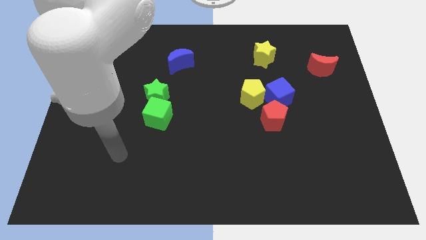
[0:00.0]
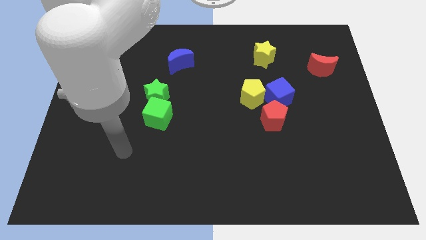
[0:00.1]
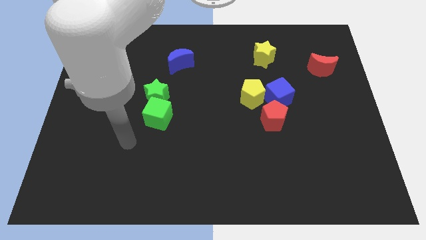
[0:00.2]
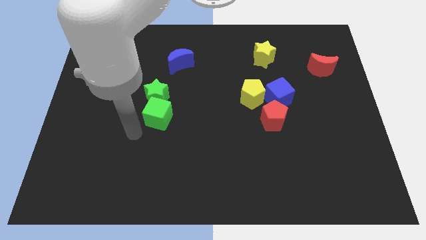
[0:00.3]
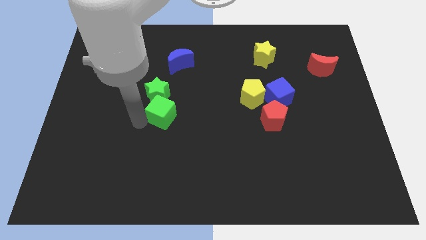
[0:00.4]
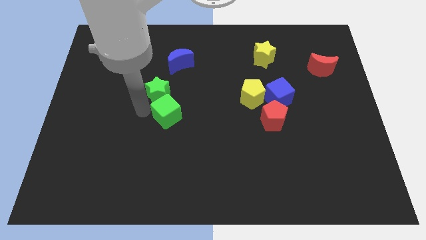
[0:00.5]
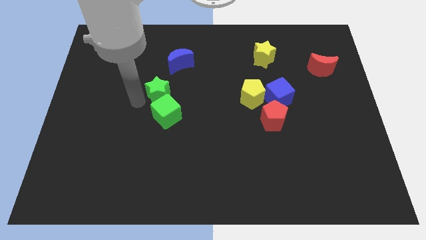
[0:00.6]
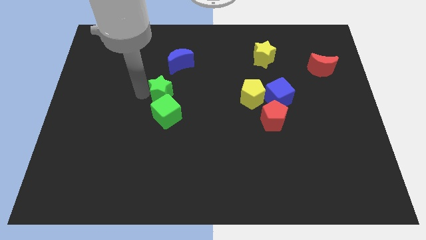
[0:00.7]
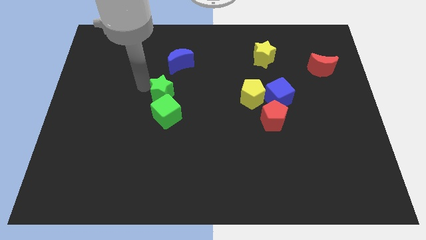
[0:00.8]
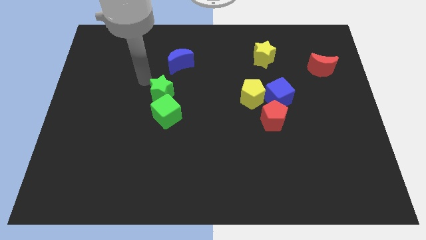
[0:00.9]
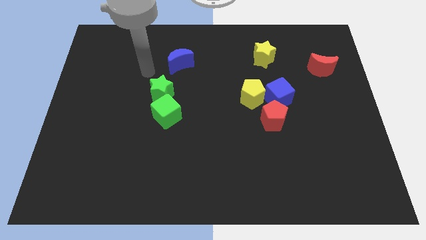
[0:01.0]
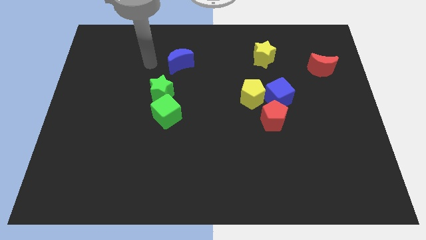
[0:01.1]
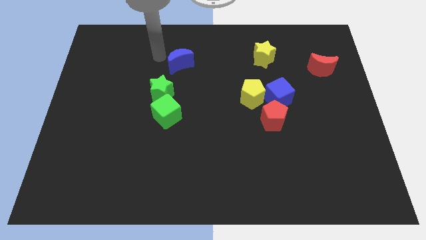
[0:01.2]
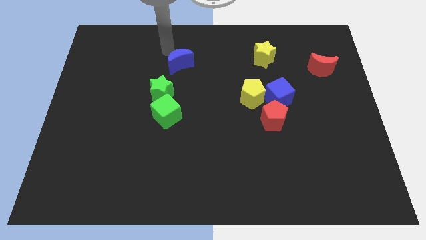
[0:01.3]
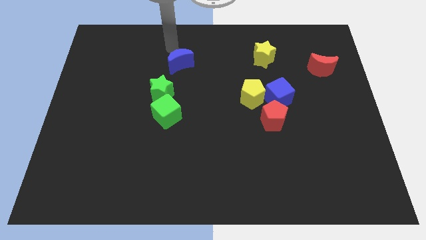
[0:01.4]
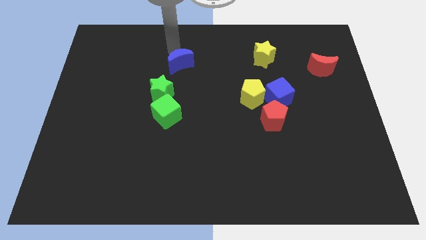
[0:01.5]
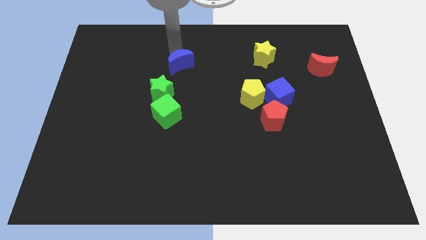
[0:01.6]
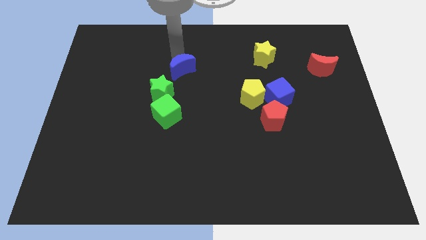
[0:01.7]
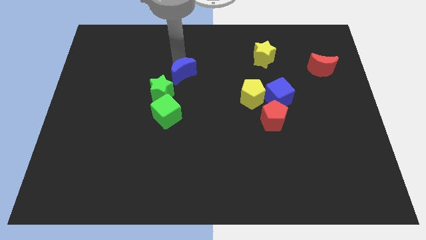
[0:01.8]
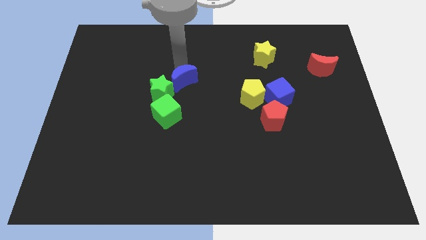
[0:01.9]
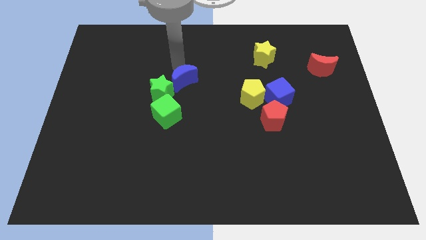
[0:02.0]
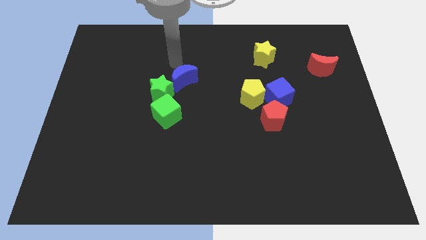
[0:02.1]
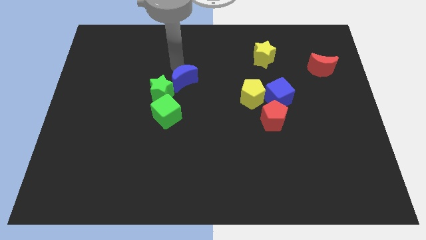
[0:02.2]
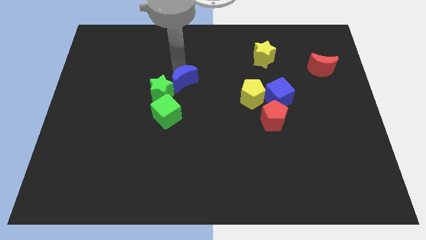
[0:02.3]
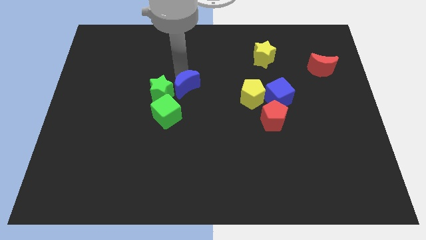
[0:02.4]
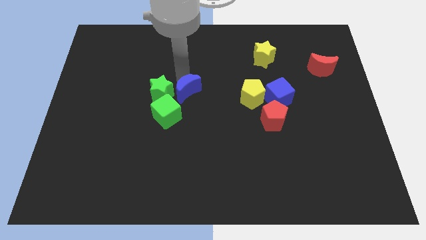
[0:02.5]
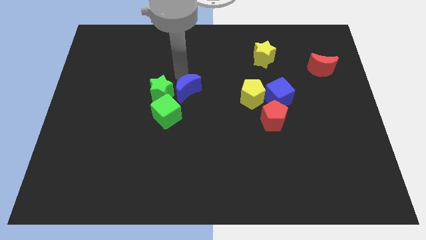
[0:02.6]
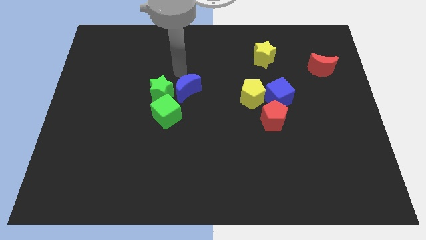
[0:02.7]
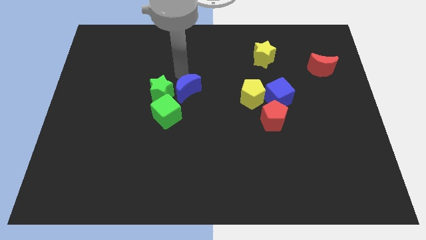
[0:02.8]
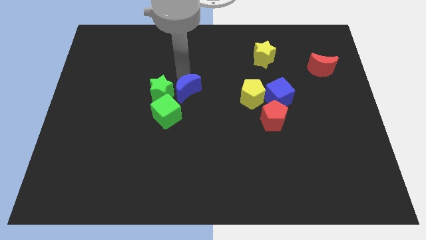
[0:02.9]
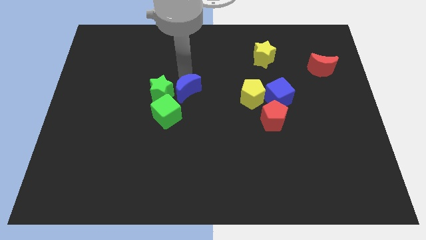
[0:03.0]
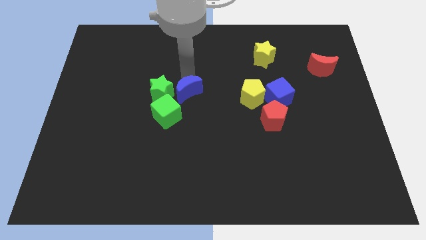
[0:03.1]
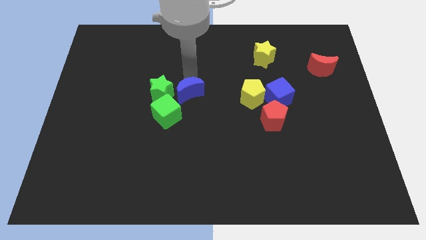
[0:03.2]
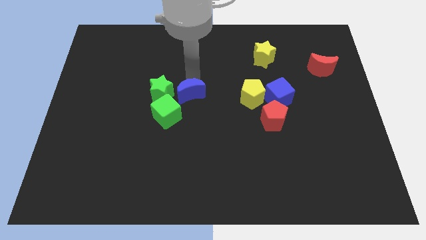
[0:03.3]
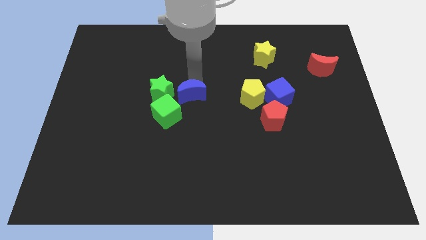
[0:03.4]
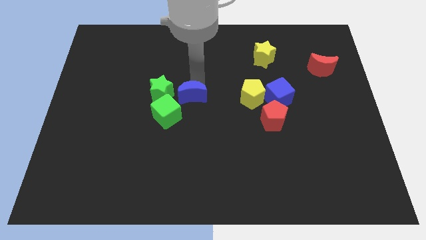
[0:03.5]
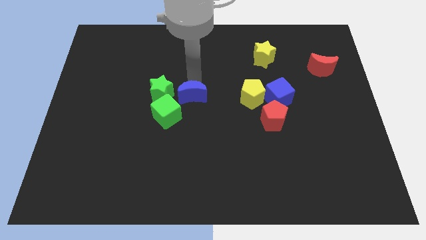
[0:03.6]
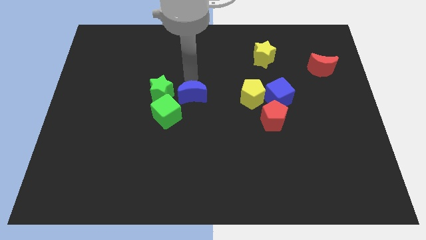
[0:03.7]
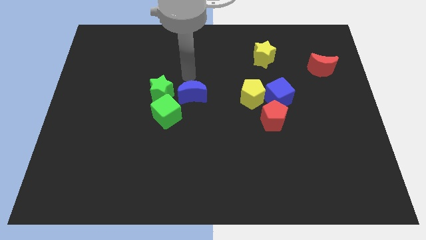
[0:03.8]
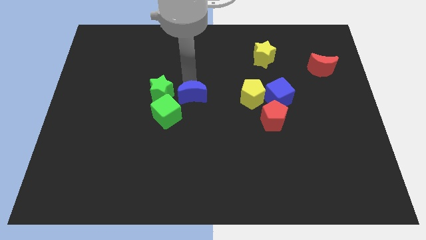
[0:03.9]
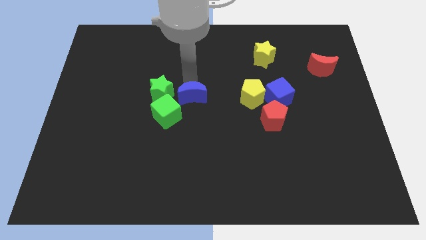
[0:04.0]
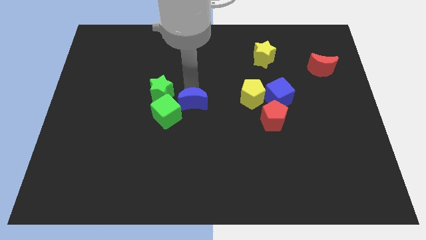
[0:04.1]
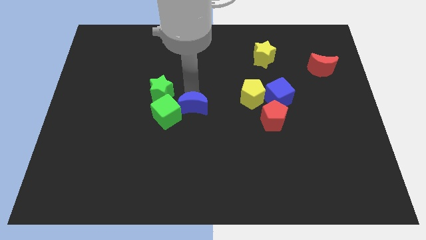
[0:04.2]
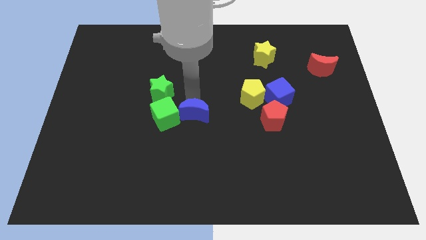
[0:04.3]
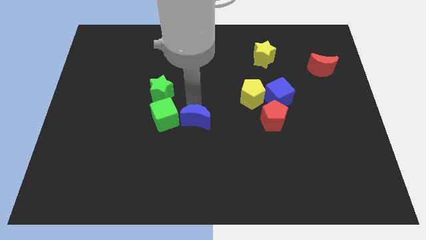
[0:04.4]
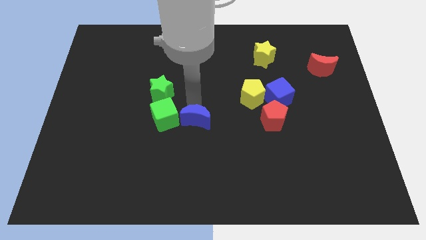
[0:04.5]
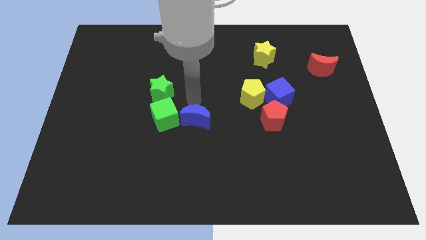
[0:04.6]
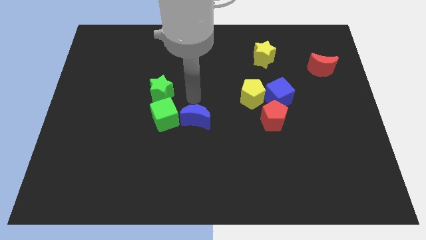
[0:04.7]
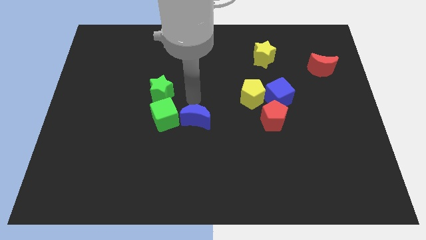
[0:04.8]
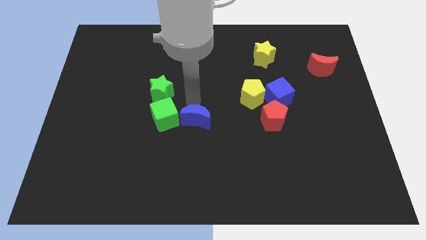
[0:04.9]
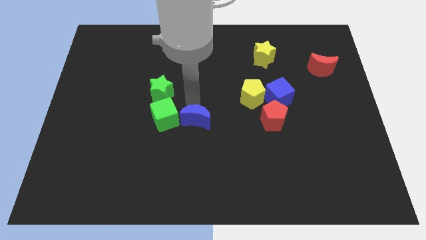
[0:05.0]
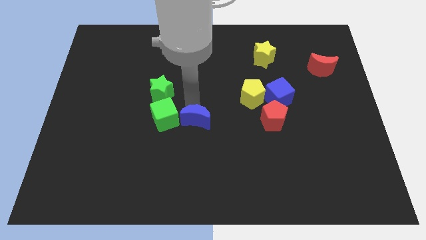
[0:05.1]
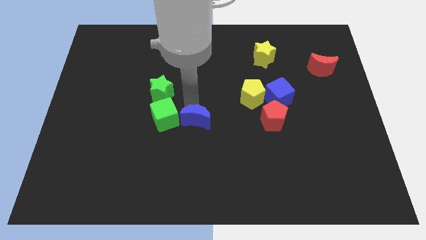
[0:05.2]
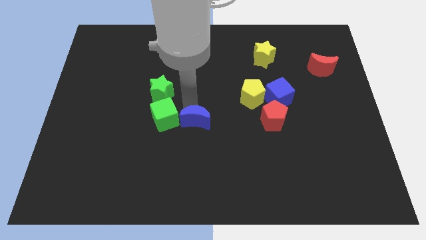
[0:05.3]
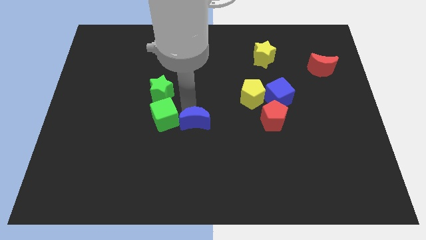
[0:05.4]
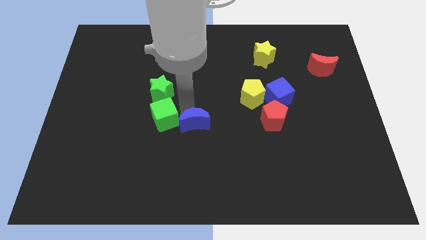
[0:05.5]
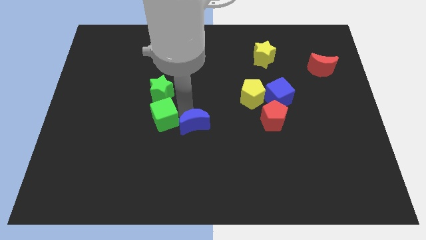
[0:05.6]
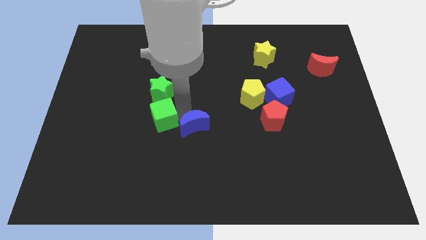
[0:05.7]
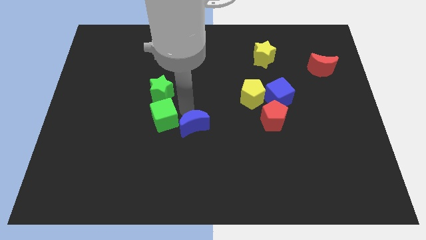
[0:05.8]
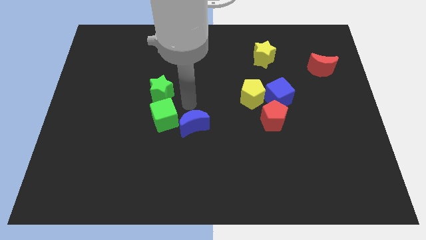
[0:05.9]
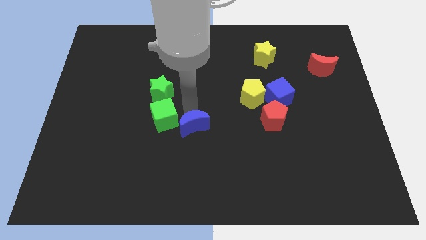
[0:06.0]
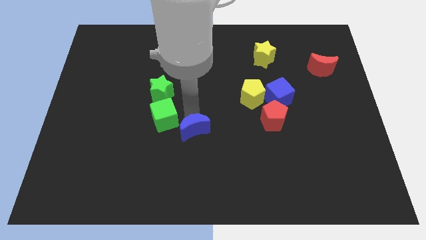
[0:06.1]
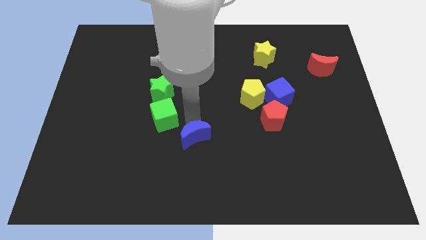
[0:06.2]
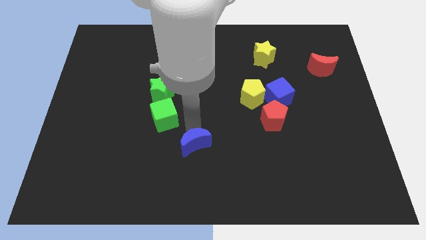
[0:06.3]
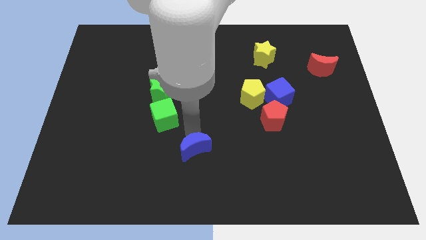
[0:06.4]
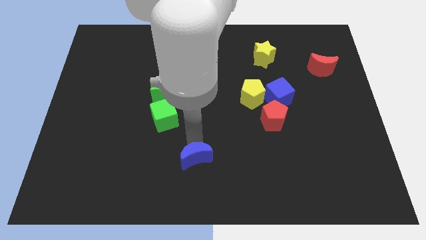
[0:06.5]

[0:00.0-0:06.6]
slide the blue moon to the bottom
